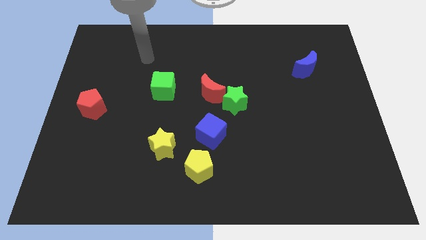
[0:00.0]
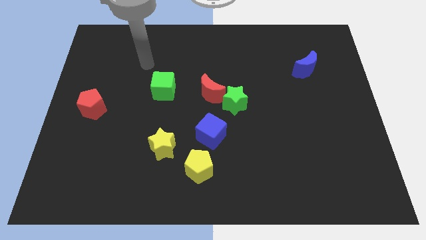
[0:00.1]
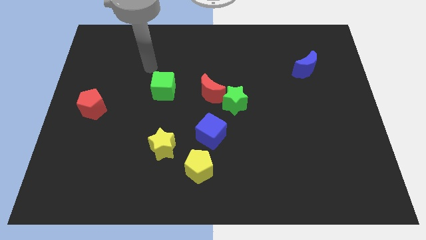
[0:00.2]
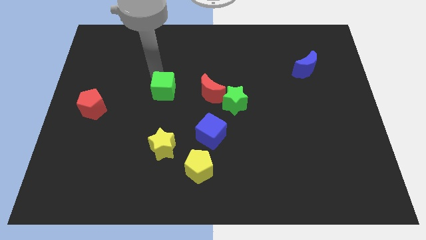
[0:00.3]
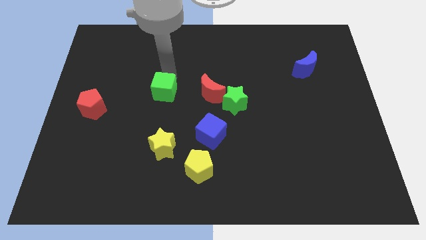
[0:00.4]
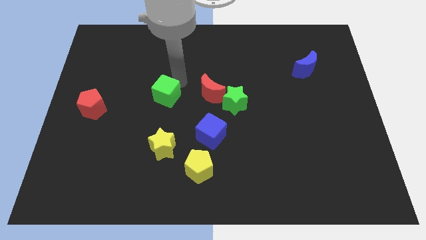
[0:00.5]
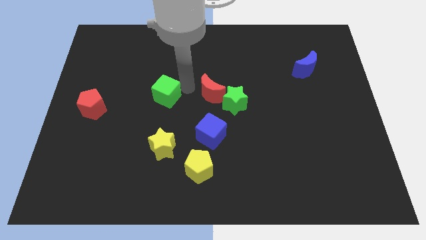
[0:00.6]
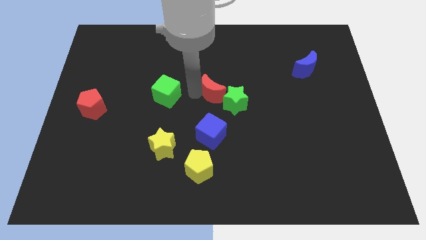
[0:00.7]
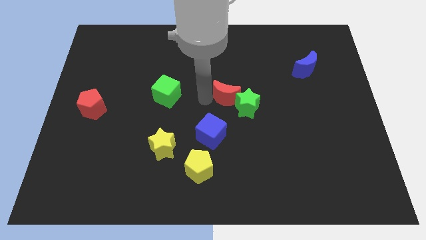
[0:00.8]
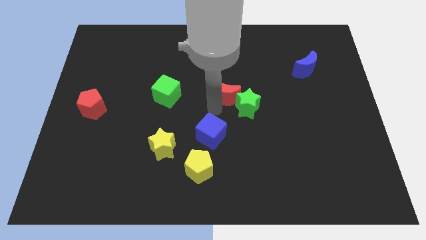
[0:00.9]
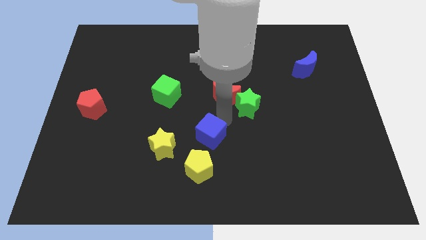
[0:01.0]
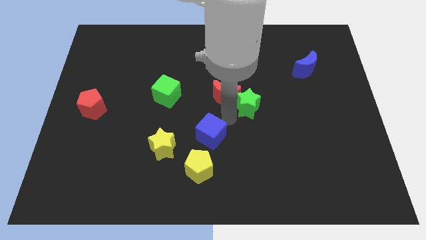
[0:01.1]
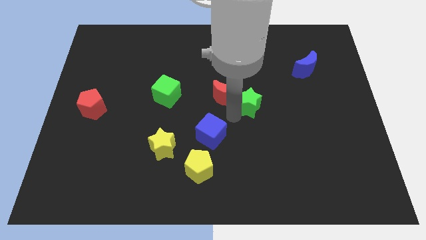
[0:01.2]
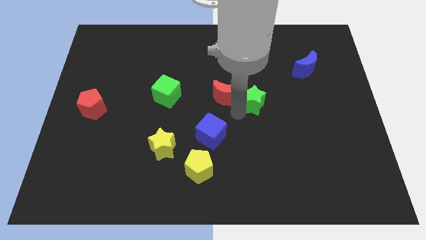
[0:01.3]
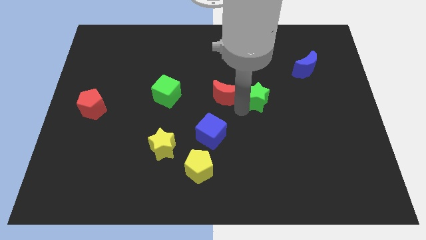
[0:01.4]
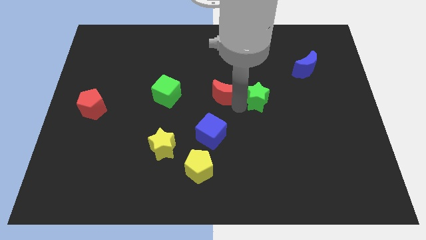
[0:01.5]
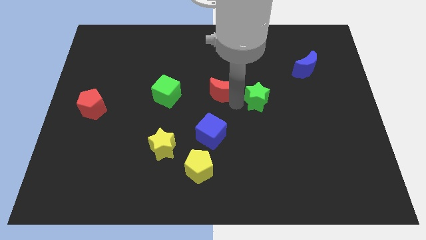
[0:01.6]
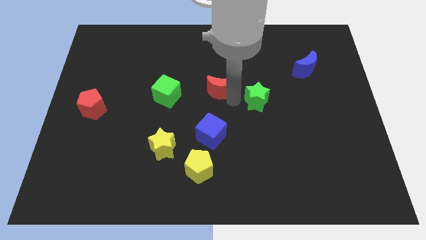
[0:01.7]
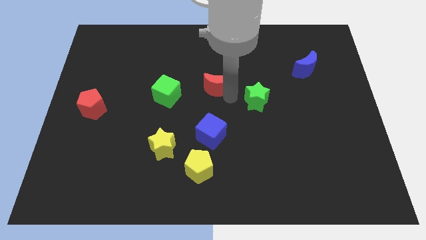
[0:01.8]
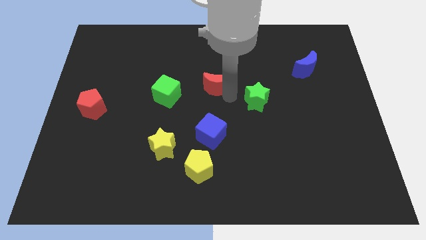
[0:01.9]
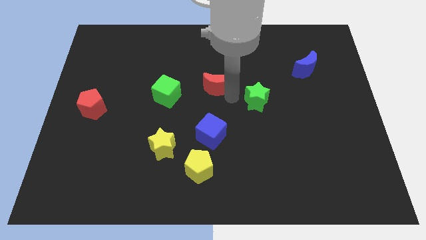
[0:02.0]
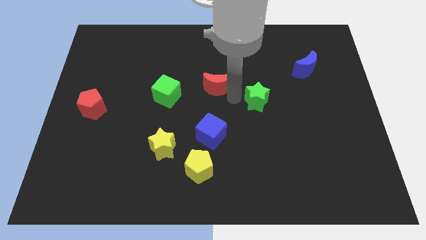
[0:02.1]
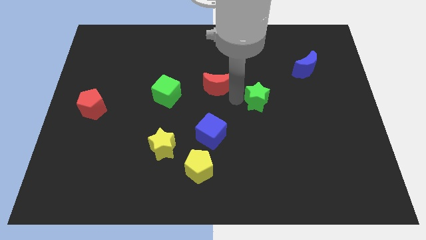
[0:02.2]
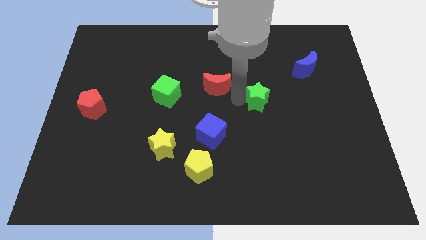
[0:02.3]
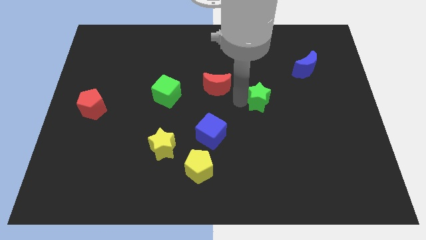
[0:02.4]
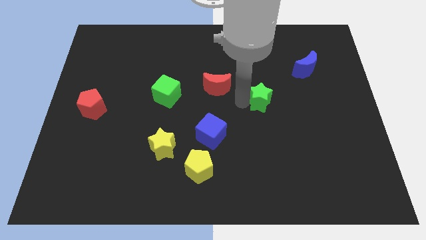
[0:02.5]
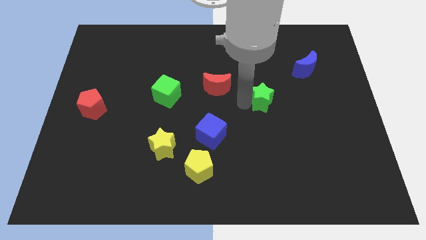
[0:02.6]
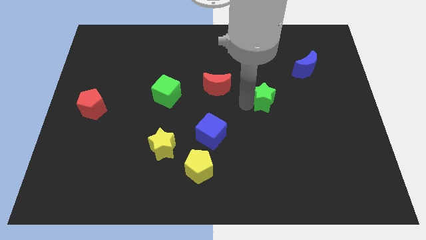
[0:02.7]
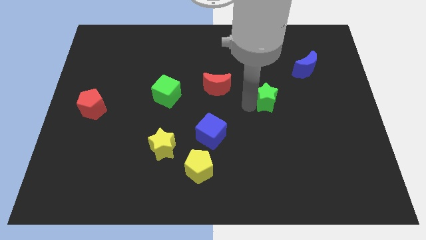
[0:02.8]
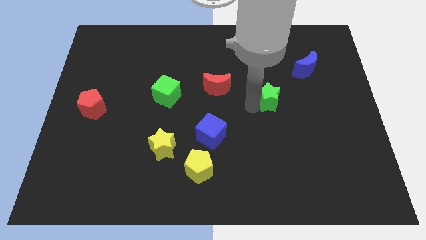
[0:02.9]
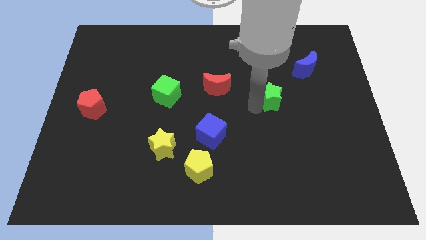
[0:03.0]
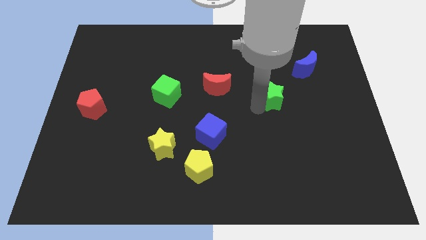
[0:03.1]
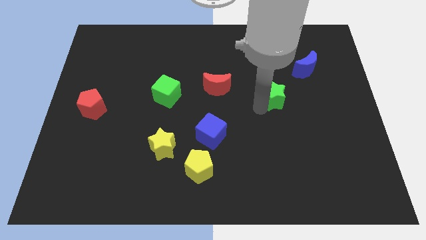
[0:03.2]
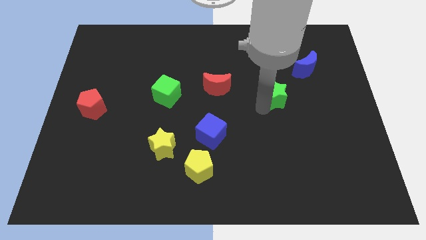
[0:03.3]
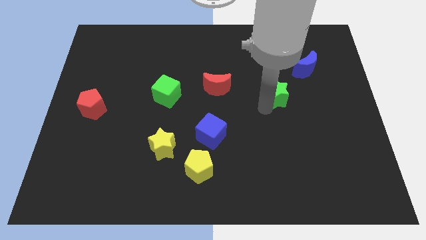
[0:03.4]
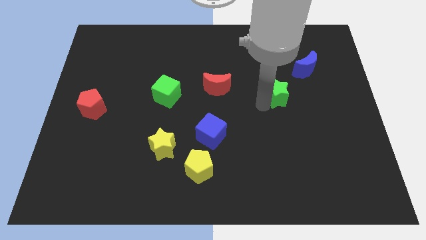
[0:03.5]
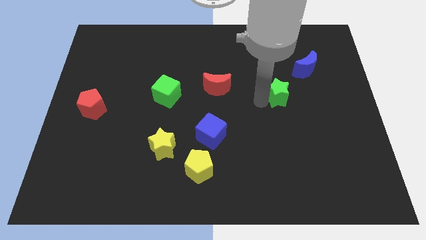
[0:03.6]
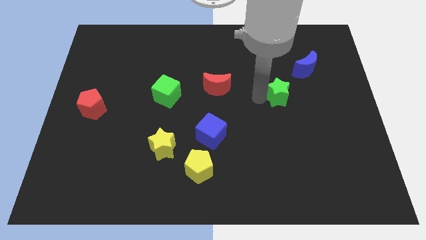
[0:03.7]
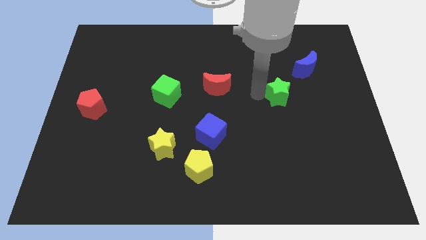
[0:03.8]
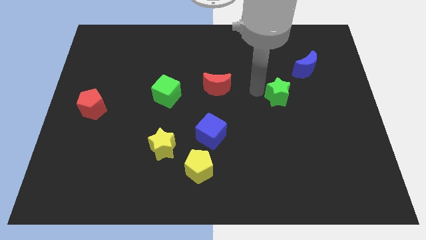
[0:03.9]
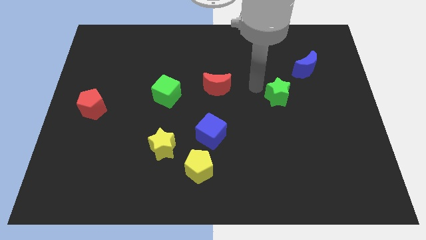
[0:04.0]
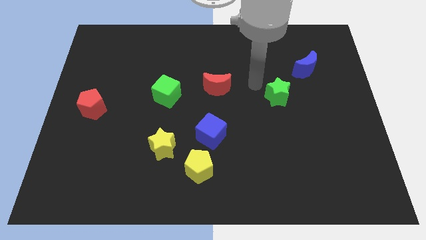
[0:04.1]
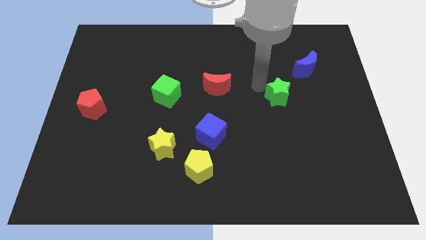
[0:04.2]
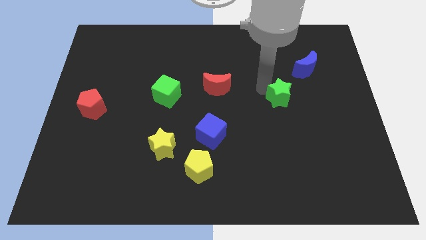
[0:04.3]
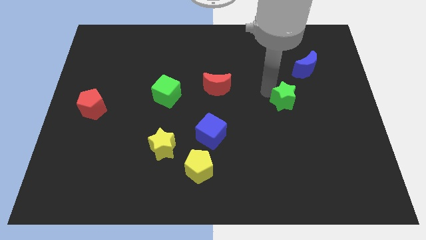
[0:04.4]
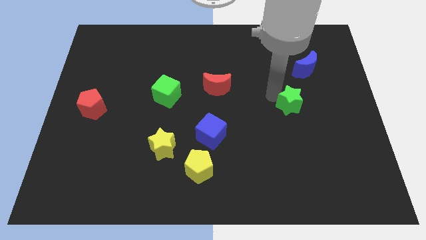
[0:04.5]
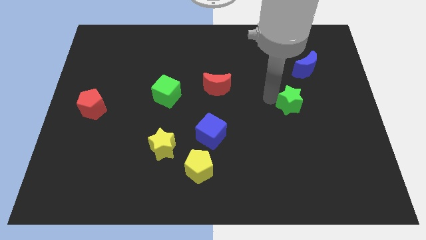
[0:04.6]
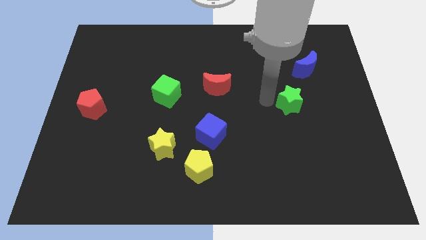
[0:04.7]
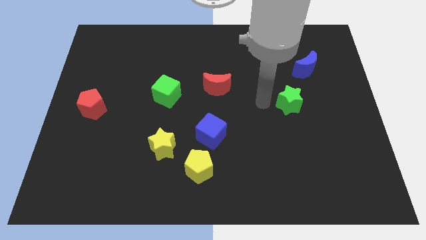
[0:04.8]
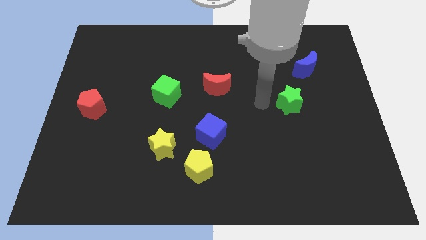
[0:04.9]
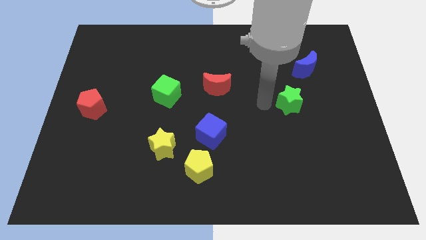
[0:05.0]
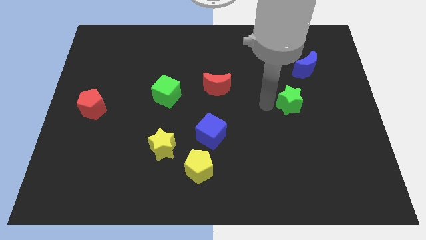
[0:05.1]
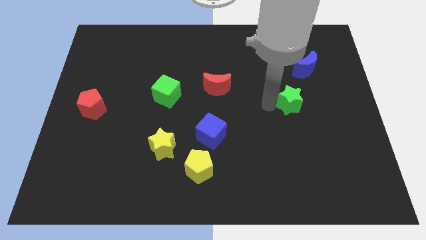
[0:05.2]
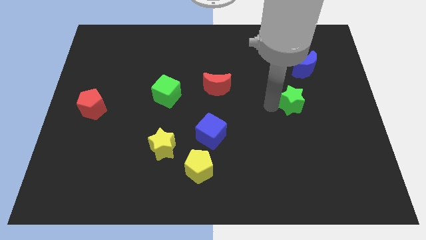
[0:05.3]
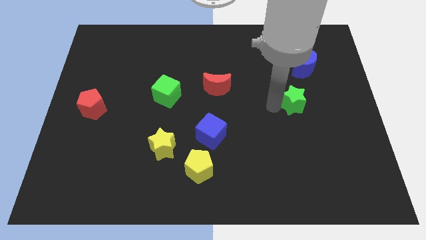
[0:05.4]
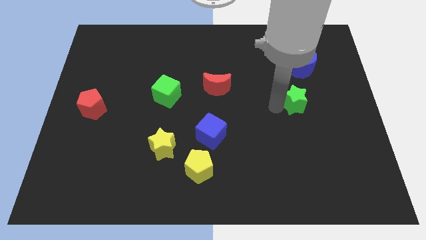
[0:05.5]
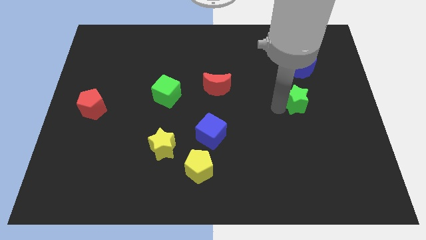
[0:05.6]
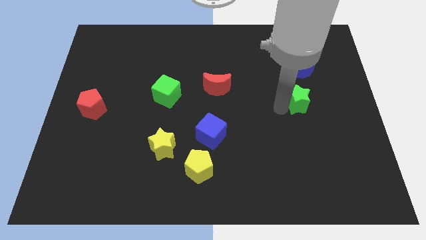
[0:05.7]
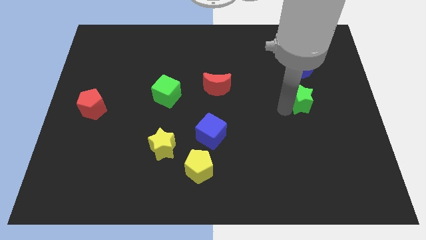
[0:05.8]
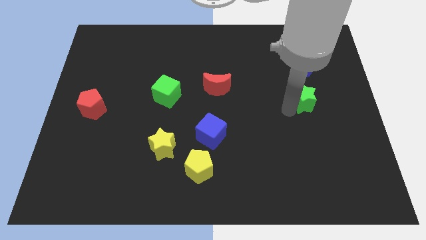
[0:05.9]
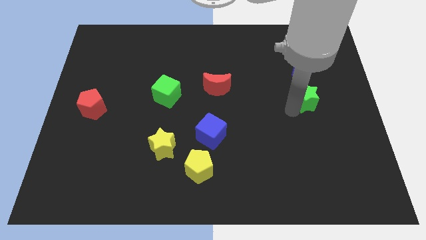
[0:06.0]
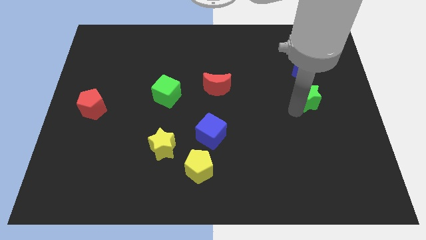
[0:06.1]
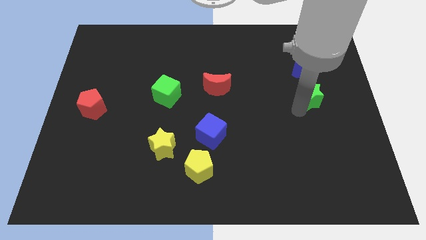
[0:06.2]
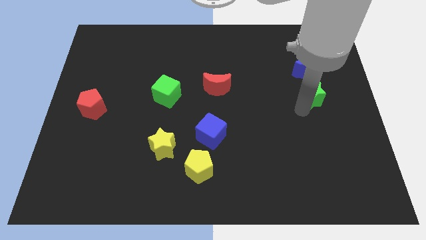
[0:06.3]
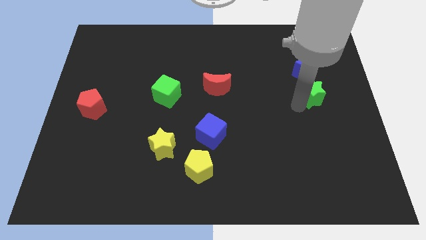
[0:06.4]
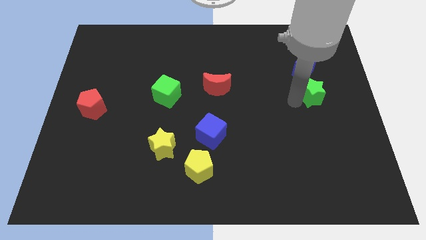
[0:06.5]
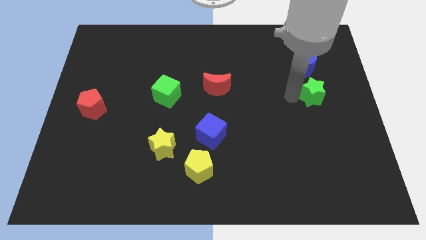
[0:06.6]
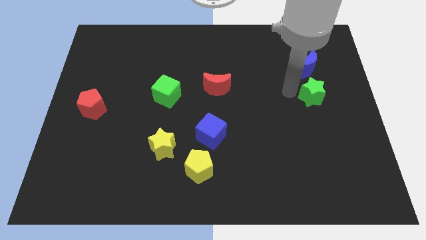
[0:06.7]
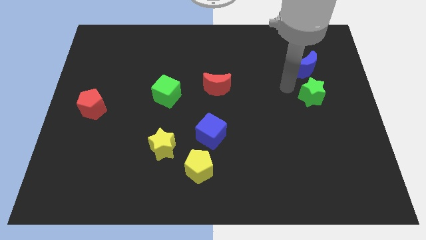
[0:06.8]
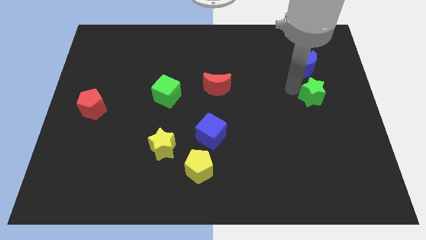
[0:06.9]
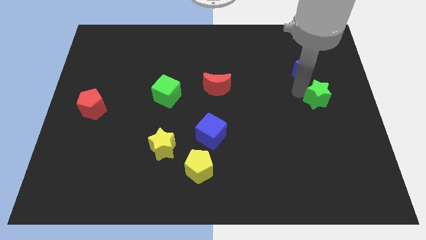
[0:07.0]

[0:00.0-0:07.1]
put the green star to the right side of the board
